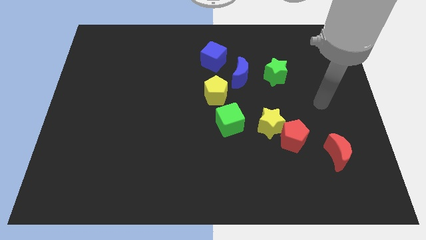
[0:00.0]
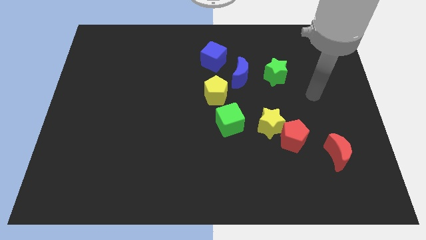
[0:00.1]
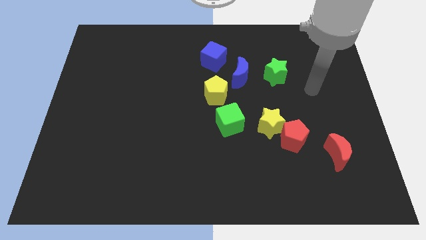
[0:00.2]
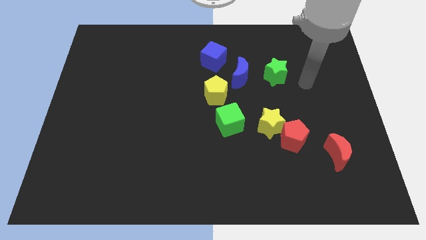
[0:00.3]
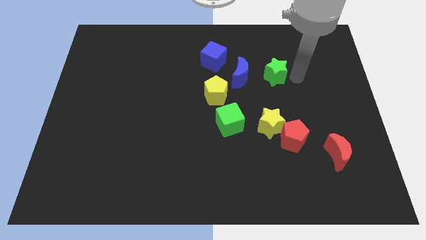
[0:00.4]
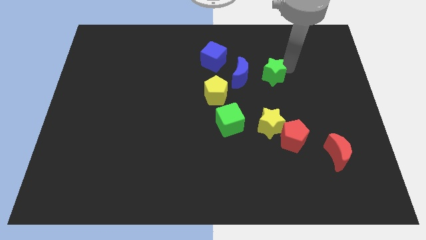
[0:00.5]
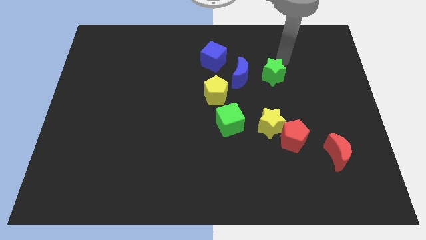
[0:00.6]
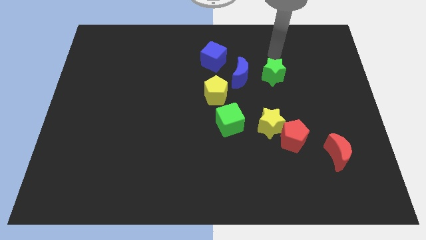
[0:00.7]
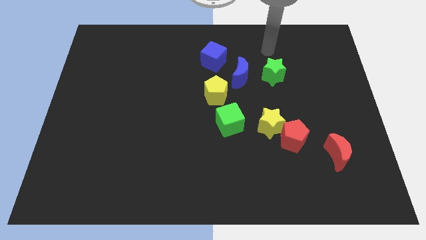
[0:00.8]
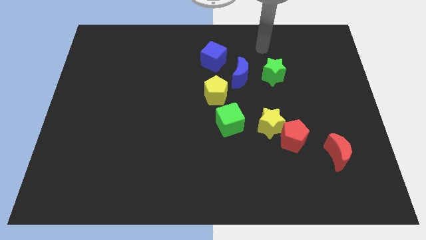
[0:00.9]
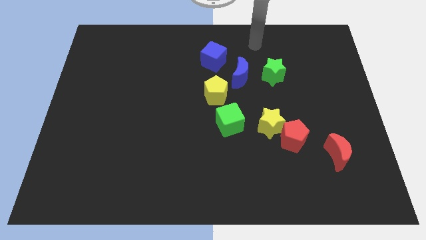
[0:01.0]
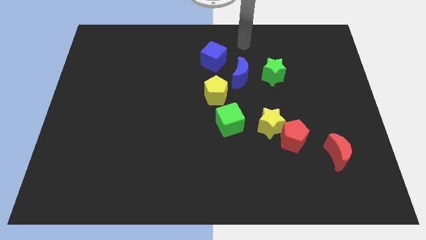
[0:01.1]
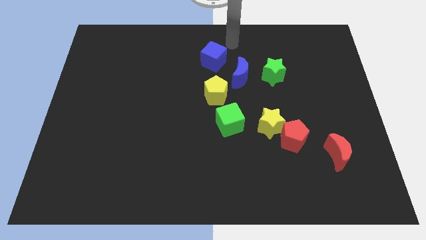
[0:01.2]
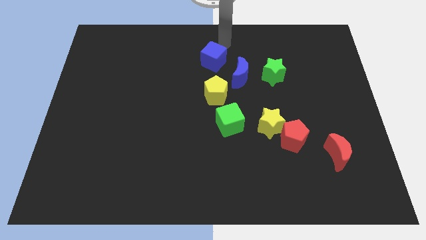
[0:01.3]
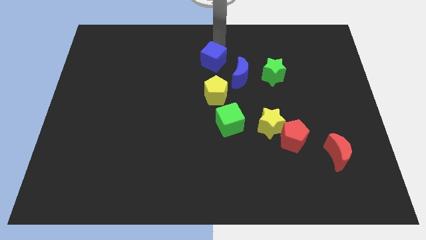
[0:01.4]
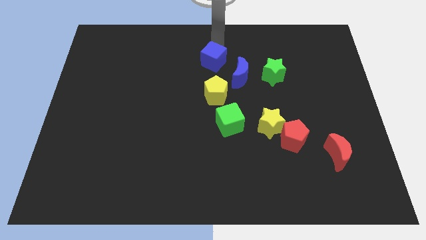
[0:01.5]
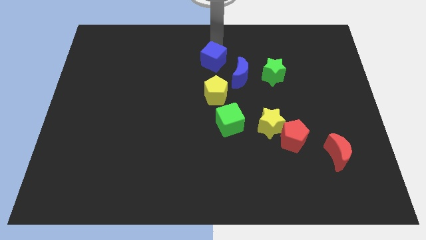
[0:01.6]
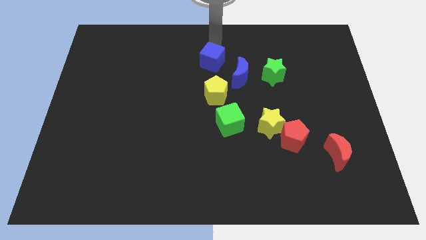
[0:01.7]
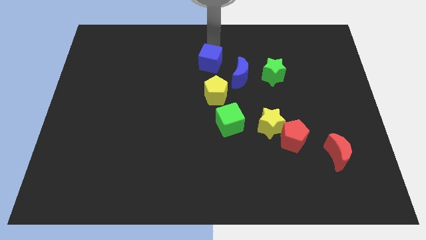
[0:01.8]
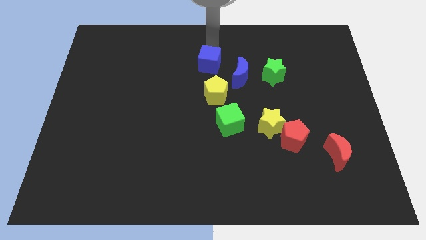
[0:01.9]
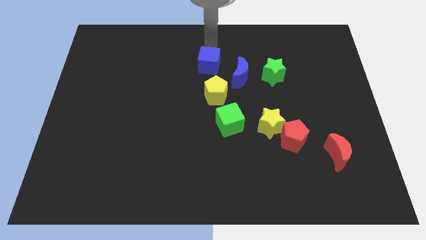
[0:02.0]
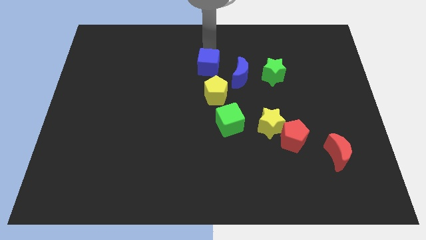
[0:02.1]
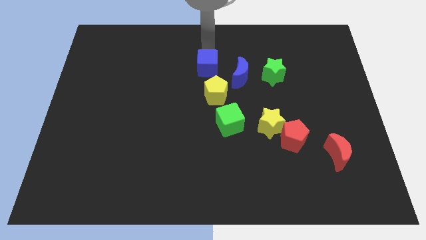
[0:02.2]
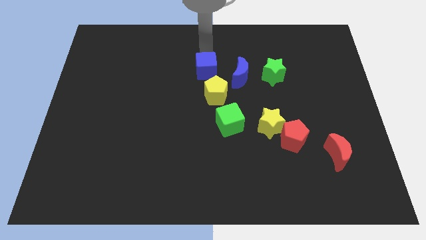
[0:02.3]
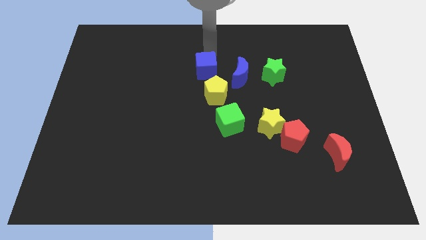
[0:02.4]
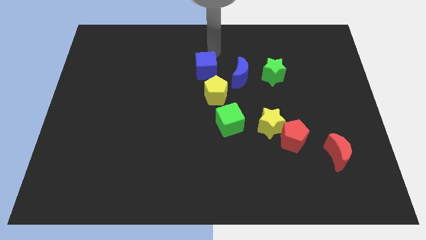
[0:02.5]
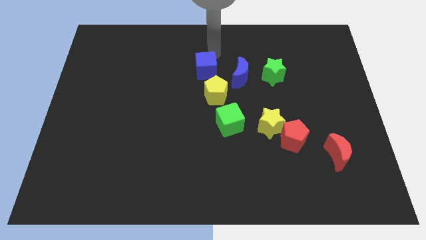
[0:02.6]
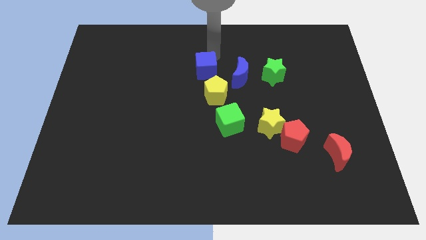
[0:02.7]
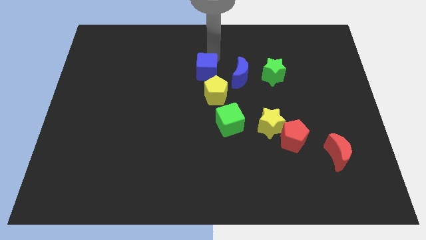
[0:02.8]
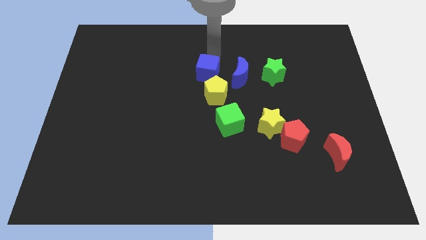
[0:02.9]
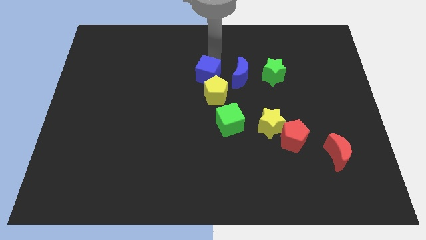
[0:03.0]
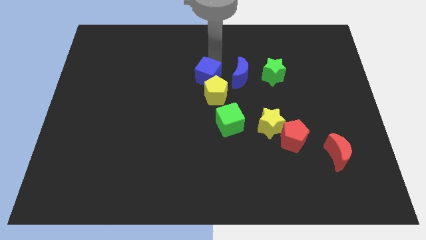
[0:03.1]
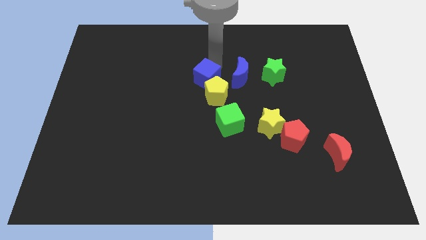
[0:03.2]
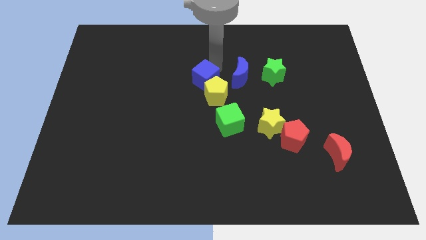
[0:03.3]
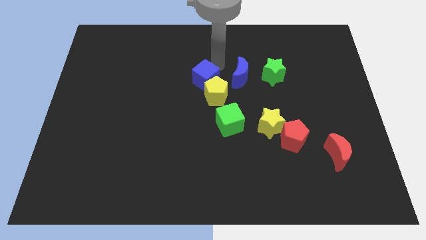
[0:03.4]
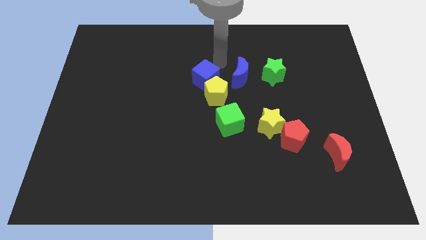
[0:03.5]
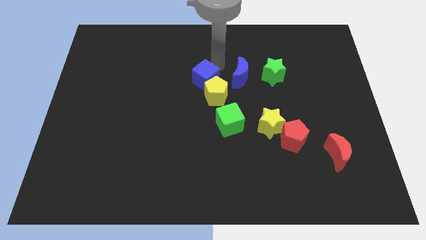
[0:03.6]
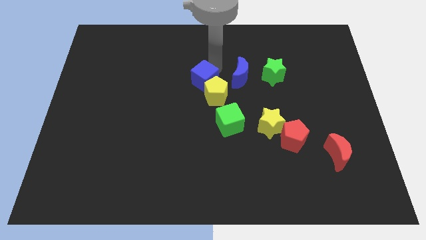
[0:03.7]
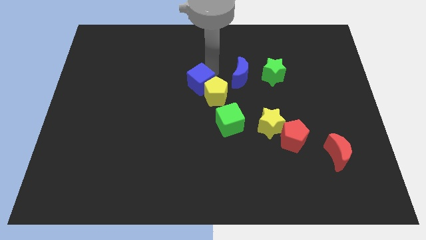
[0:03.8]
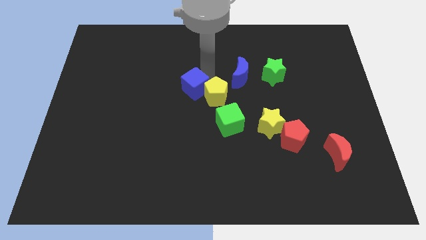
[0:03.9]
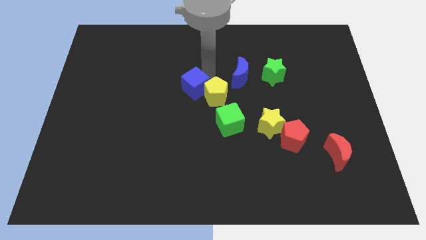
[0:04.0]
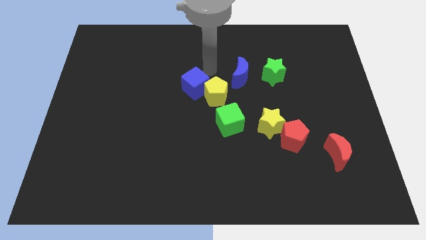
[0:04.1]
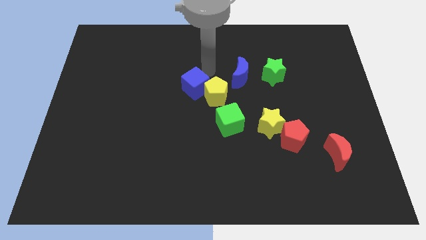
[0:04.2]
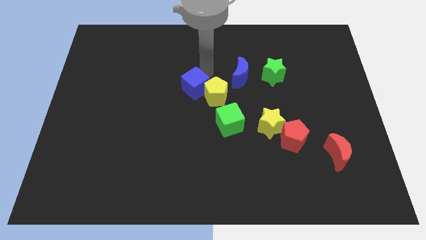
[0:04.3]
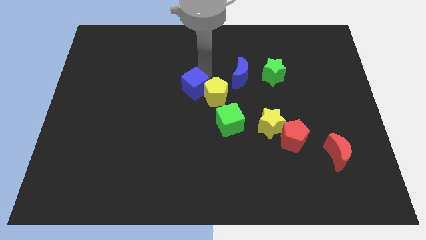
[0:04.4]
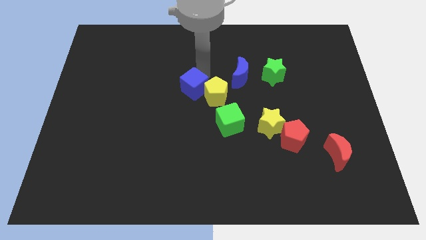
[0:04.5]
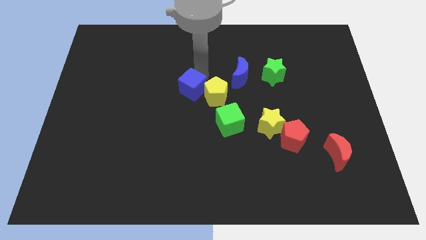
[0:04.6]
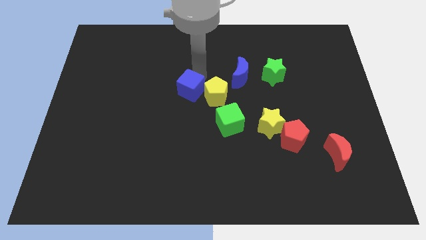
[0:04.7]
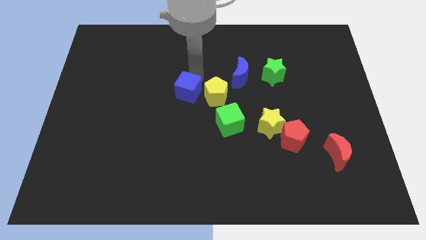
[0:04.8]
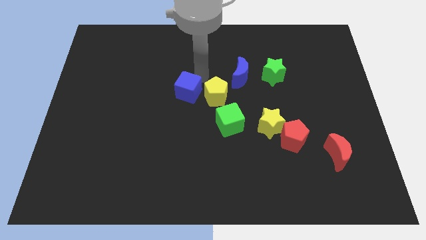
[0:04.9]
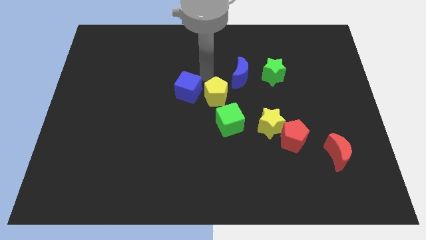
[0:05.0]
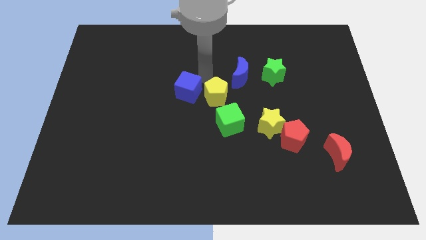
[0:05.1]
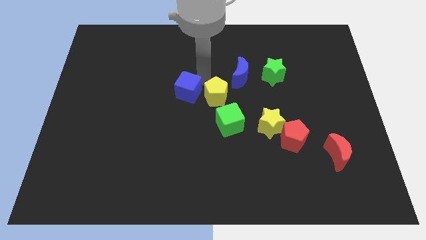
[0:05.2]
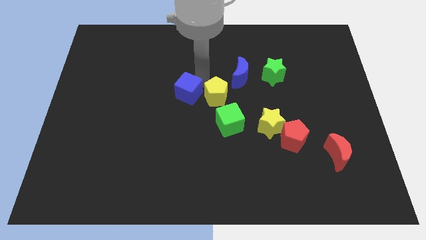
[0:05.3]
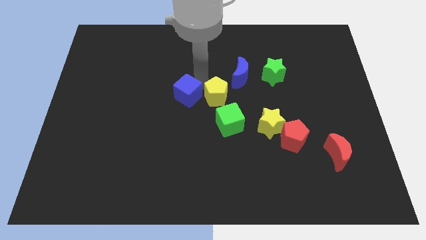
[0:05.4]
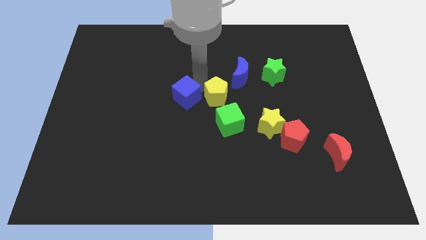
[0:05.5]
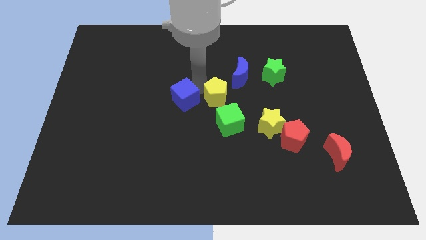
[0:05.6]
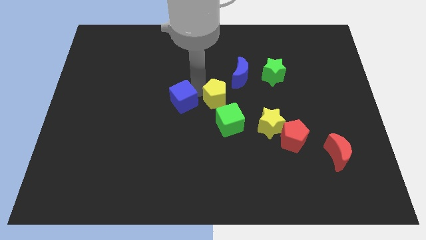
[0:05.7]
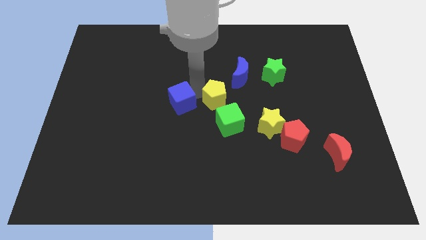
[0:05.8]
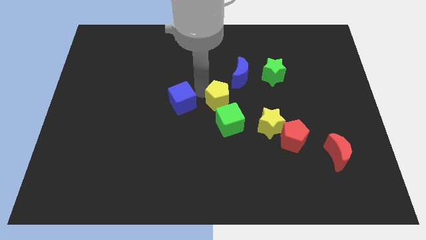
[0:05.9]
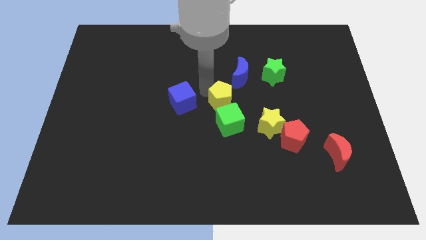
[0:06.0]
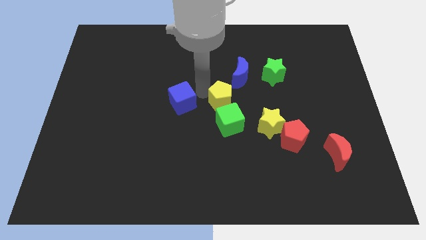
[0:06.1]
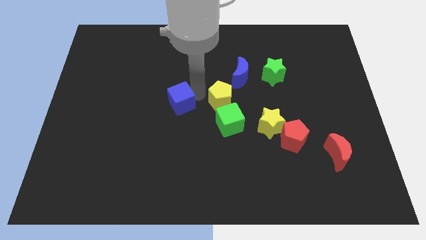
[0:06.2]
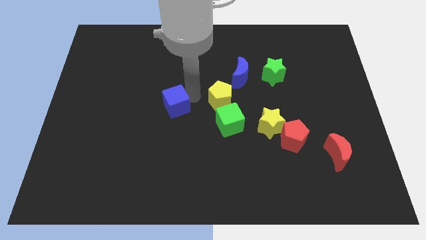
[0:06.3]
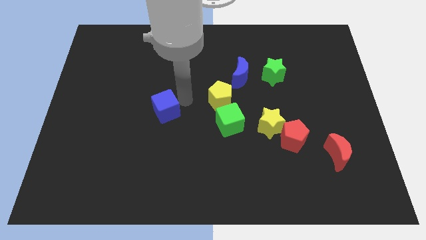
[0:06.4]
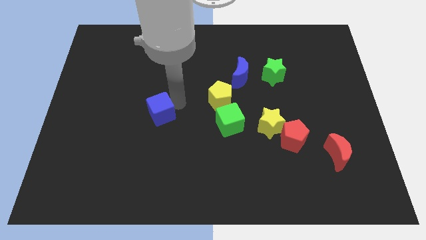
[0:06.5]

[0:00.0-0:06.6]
slide the blue cube down and then left

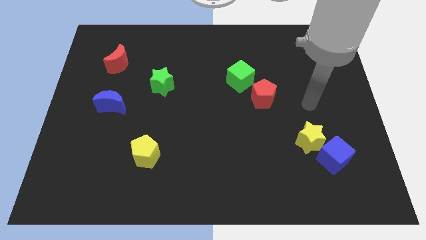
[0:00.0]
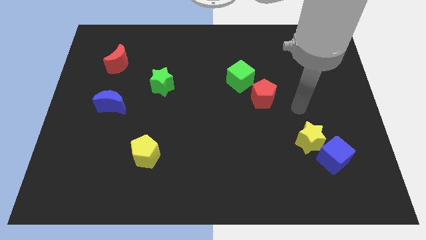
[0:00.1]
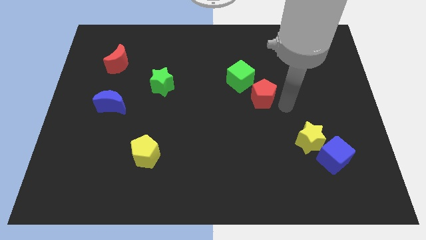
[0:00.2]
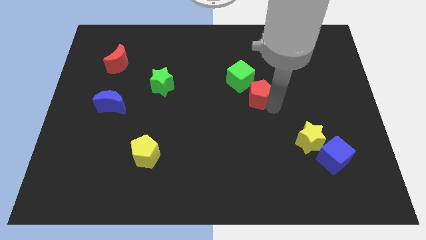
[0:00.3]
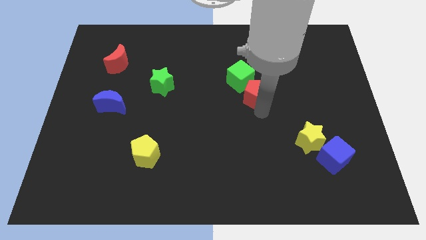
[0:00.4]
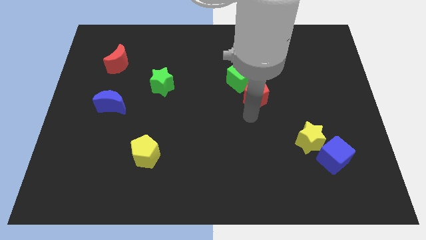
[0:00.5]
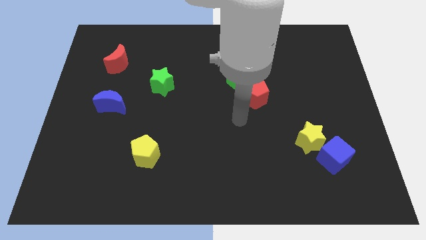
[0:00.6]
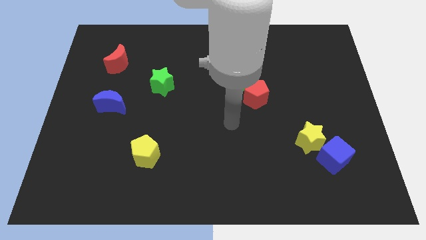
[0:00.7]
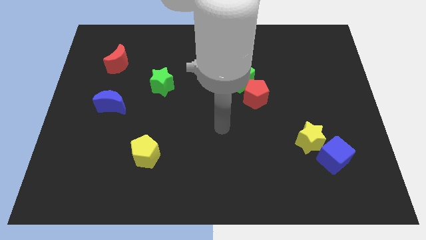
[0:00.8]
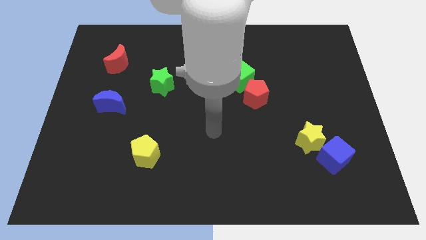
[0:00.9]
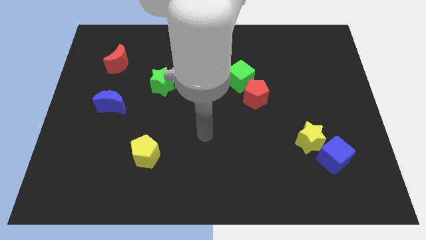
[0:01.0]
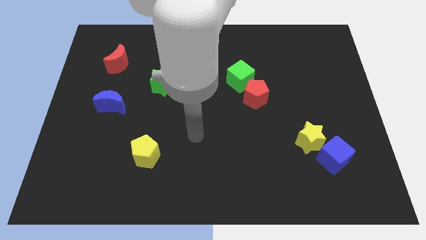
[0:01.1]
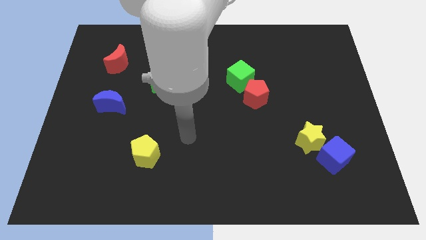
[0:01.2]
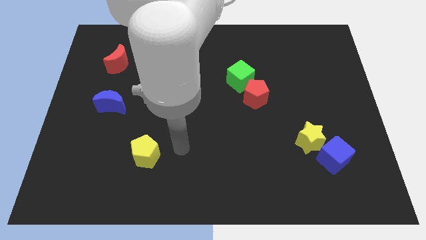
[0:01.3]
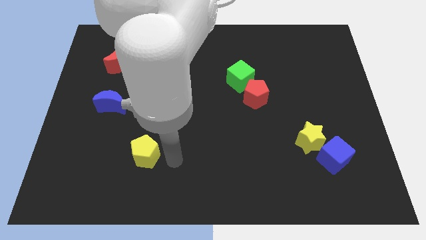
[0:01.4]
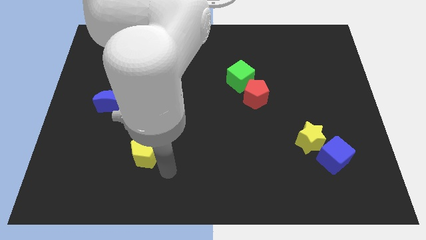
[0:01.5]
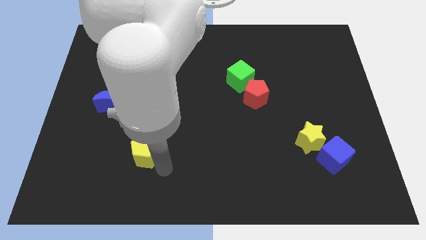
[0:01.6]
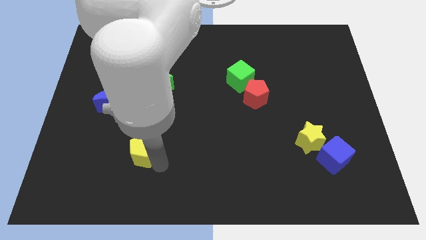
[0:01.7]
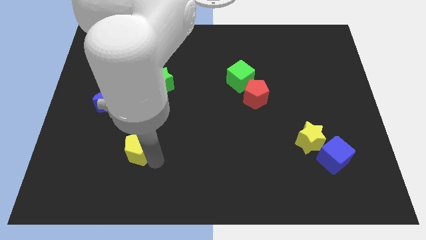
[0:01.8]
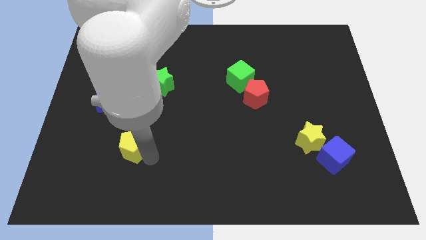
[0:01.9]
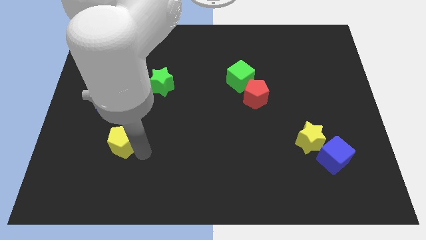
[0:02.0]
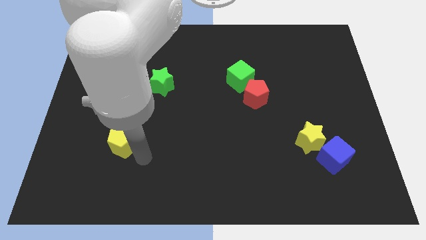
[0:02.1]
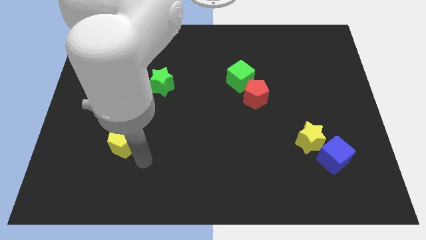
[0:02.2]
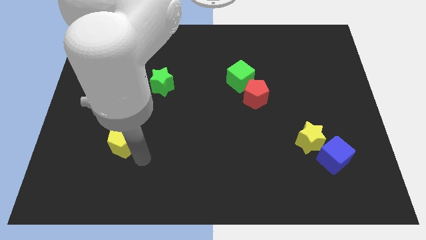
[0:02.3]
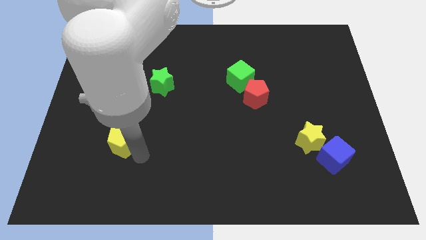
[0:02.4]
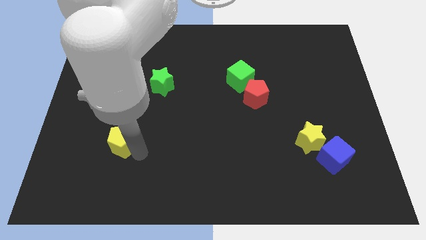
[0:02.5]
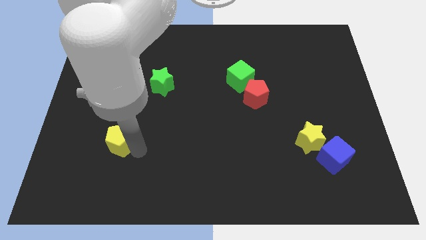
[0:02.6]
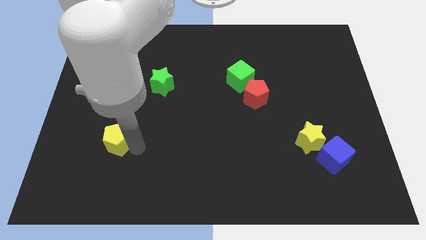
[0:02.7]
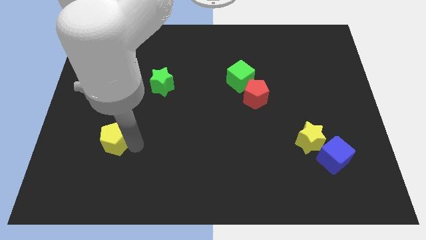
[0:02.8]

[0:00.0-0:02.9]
move the yellow pentagon up and left a bit
